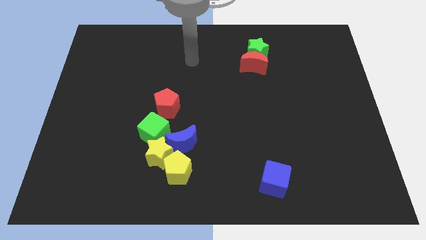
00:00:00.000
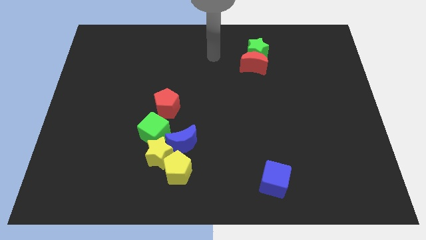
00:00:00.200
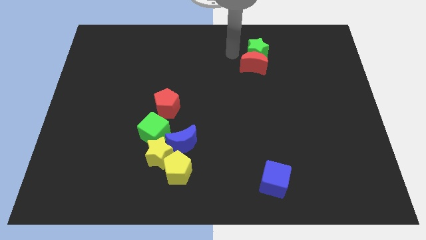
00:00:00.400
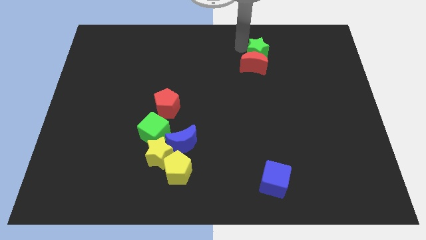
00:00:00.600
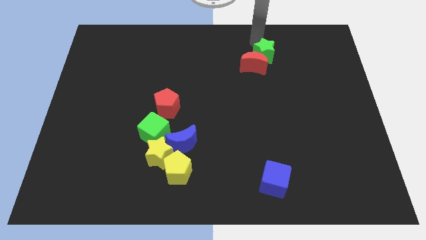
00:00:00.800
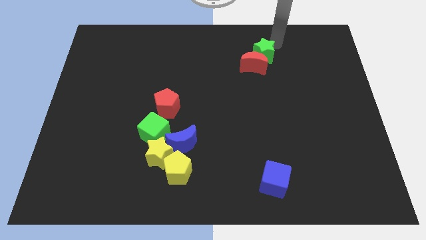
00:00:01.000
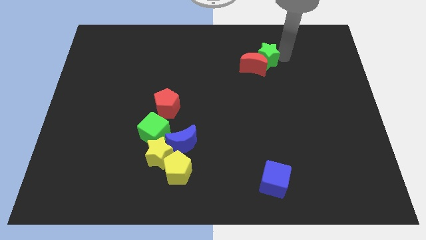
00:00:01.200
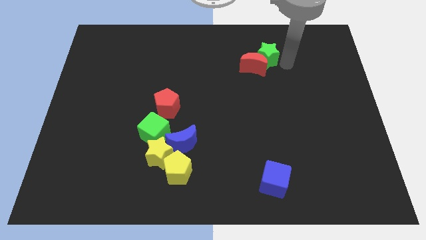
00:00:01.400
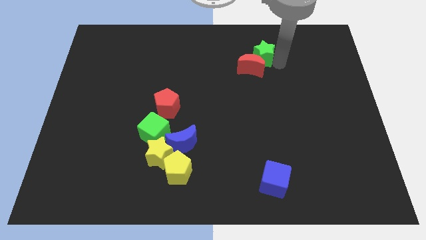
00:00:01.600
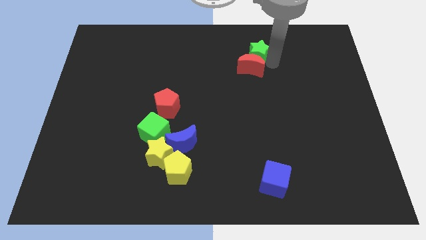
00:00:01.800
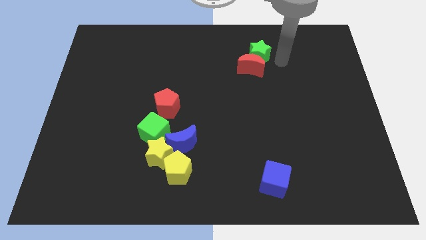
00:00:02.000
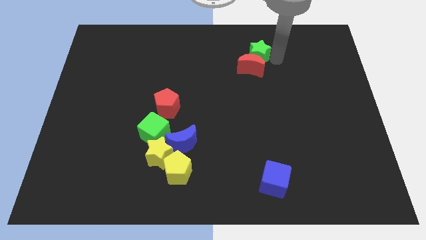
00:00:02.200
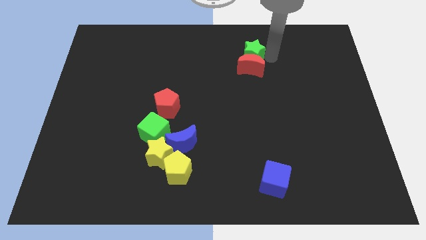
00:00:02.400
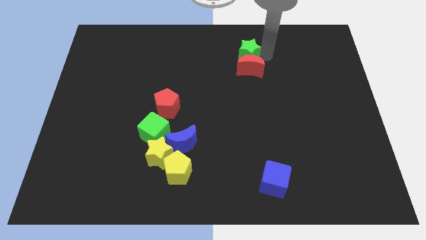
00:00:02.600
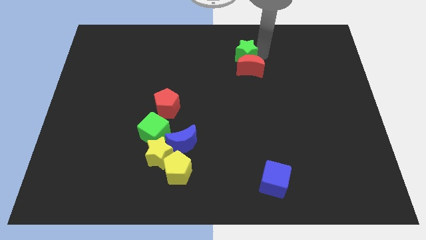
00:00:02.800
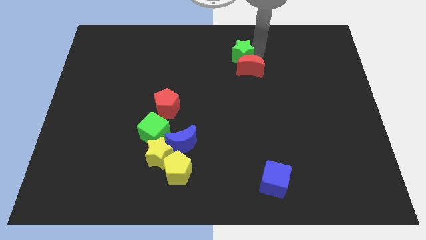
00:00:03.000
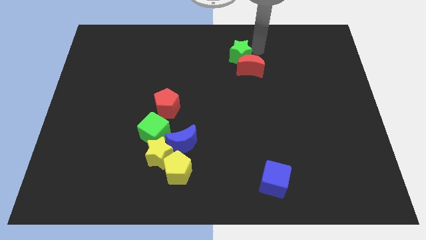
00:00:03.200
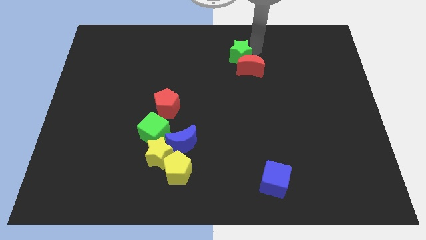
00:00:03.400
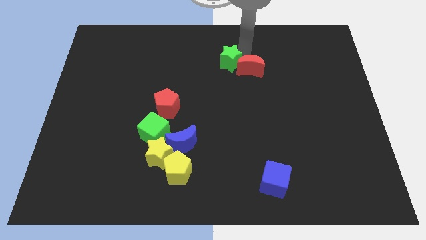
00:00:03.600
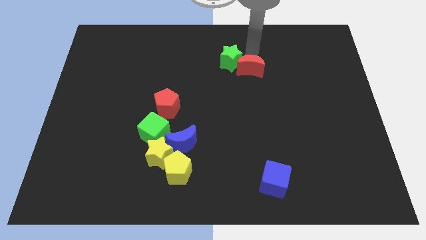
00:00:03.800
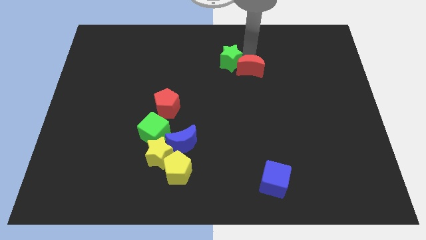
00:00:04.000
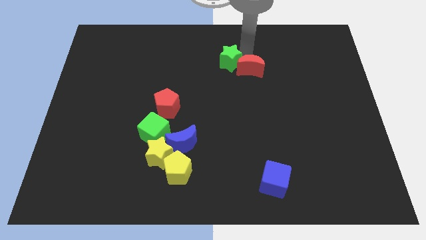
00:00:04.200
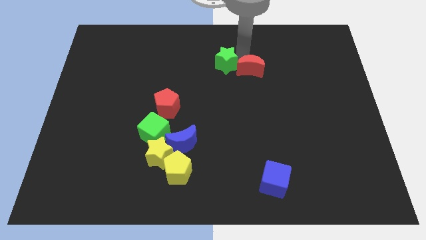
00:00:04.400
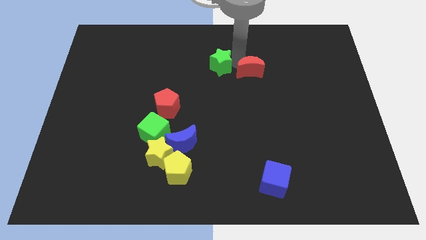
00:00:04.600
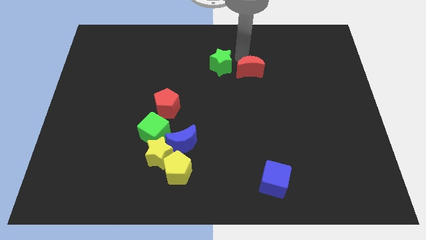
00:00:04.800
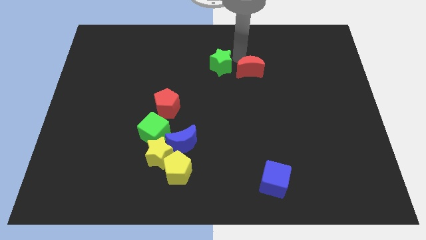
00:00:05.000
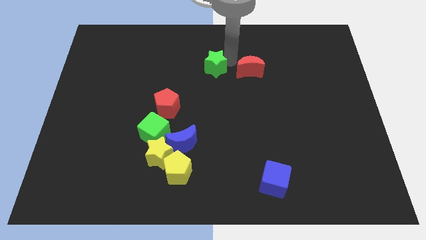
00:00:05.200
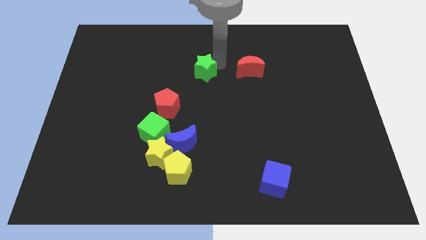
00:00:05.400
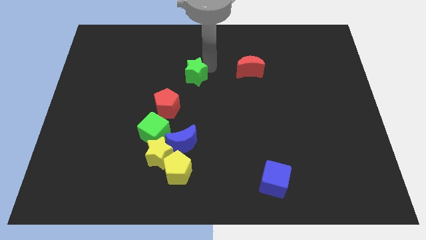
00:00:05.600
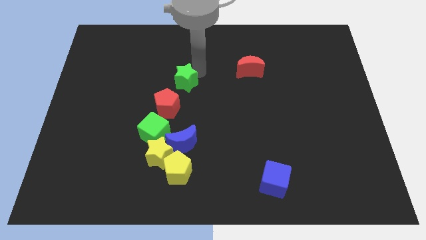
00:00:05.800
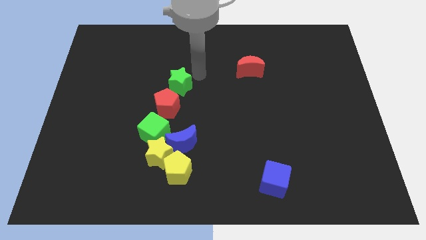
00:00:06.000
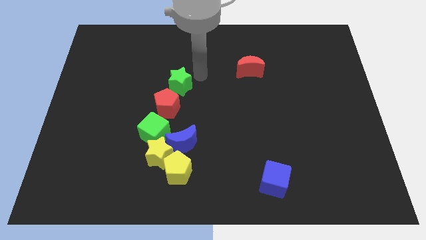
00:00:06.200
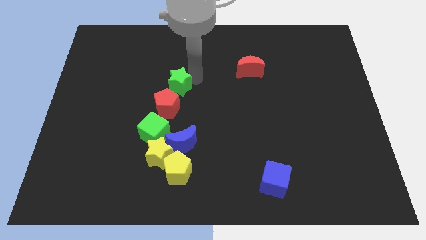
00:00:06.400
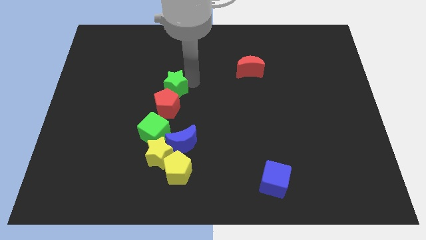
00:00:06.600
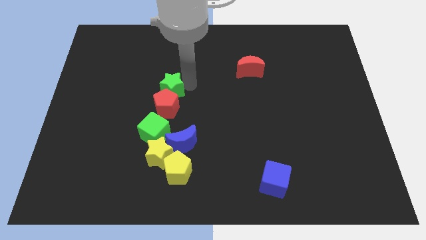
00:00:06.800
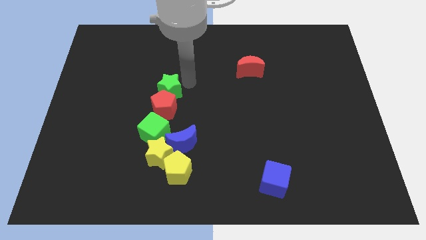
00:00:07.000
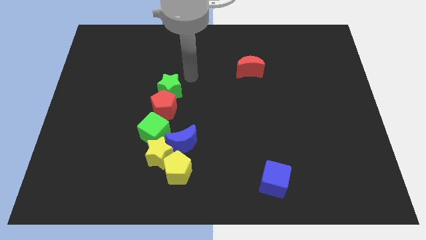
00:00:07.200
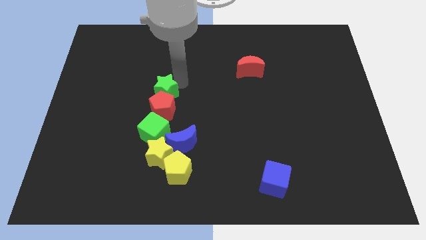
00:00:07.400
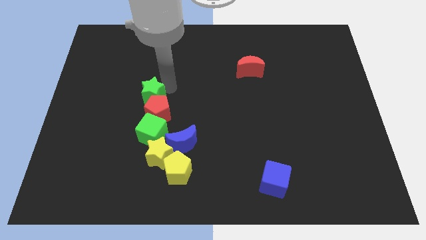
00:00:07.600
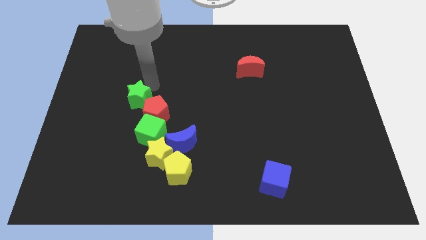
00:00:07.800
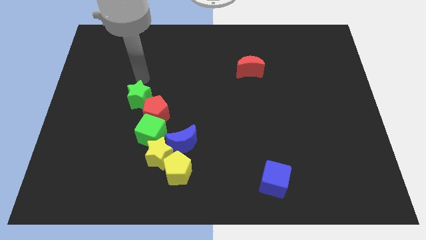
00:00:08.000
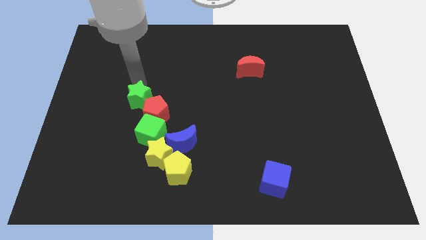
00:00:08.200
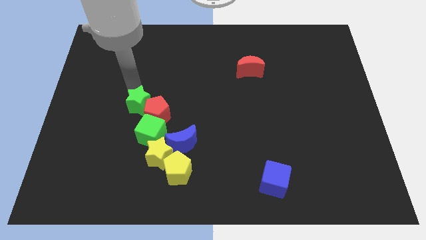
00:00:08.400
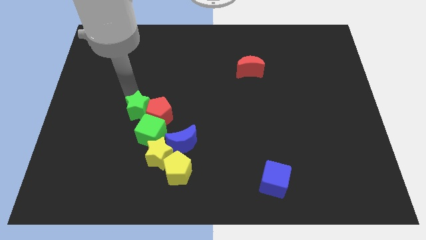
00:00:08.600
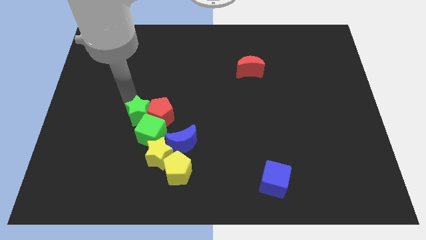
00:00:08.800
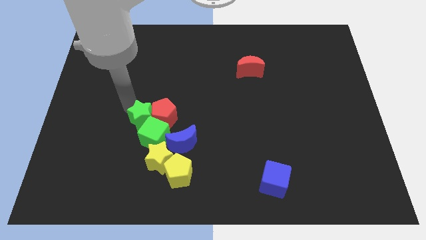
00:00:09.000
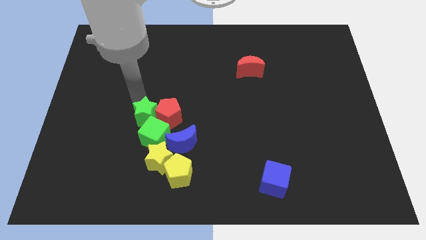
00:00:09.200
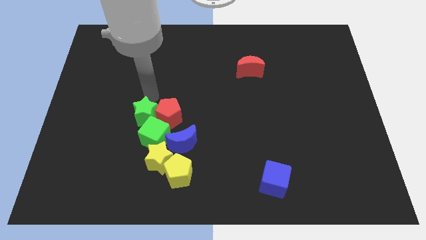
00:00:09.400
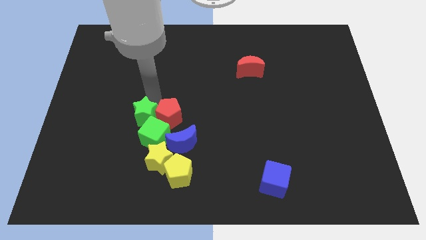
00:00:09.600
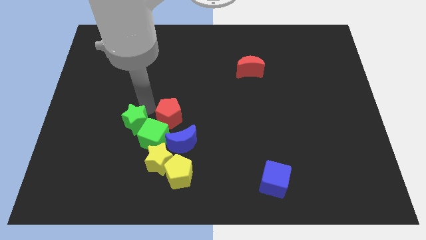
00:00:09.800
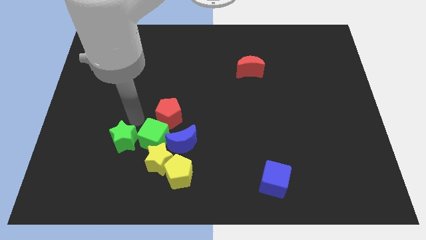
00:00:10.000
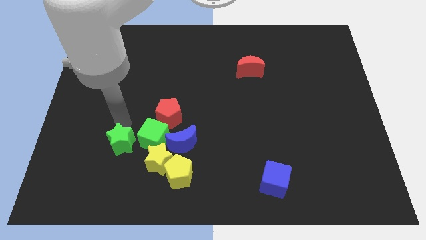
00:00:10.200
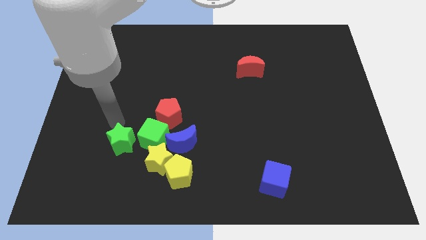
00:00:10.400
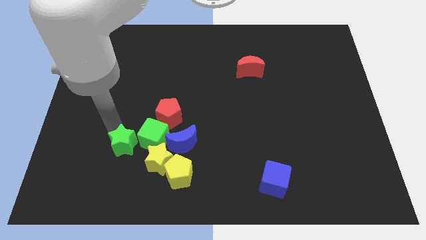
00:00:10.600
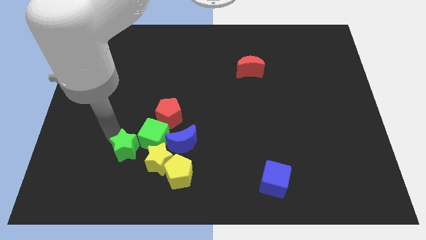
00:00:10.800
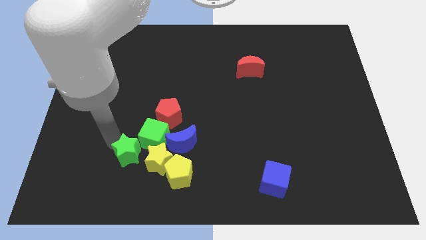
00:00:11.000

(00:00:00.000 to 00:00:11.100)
slide the green star just left of the yellow pentagon

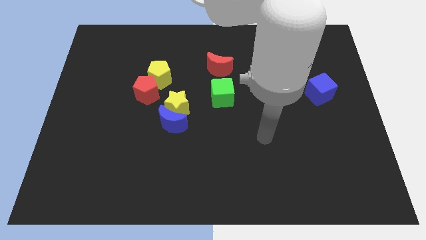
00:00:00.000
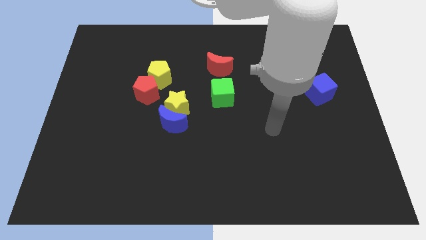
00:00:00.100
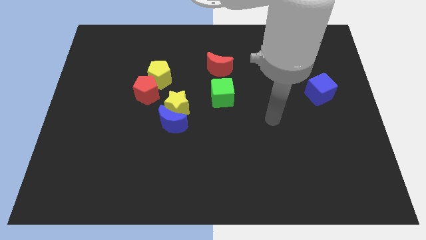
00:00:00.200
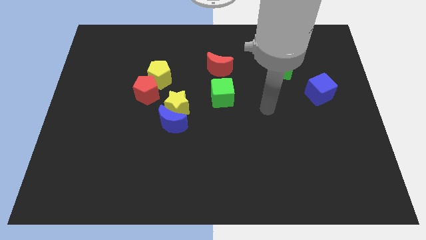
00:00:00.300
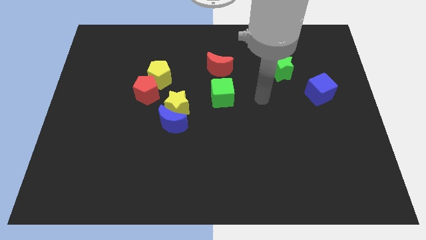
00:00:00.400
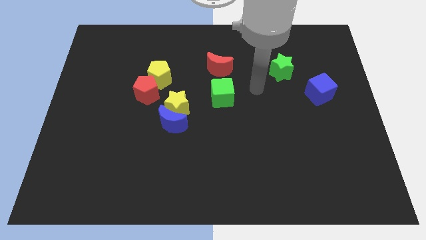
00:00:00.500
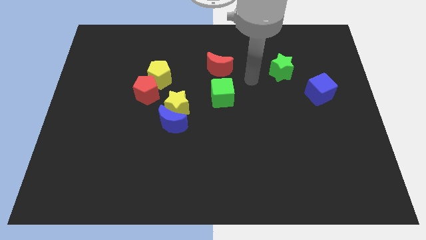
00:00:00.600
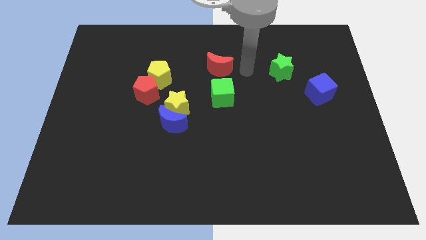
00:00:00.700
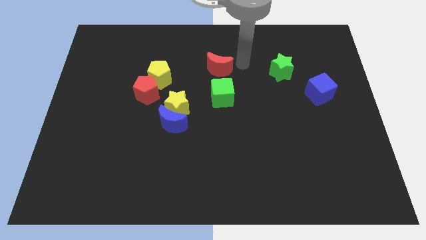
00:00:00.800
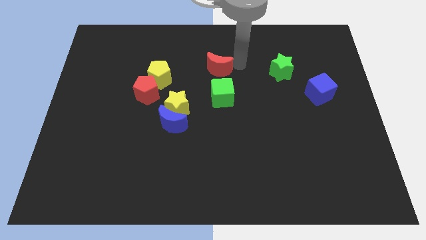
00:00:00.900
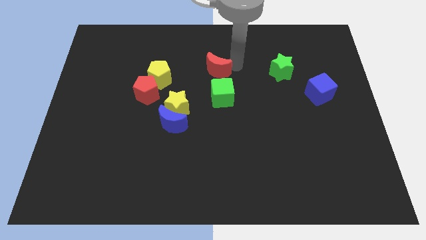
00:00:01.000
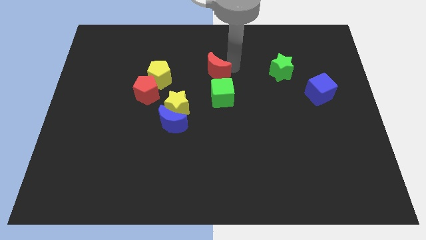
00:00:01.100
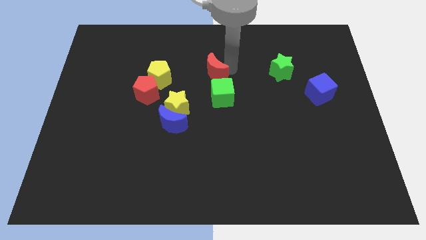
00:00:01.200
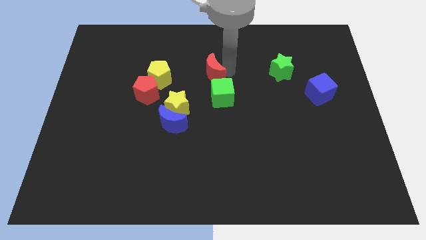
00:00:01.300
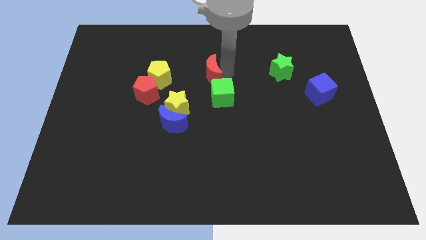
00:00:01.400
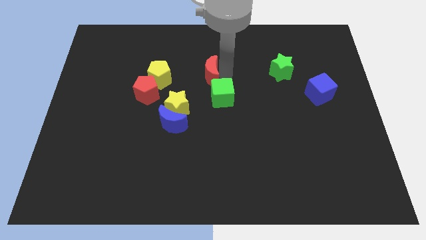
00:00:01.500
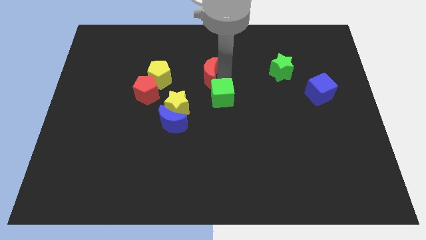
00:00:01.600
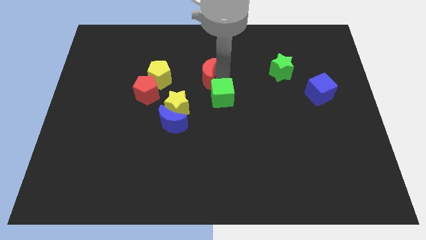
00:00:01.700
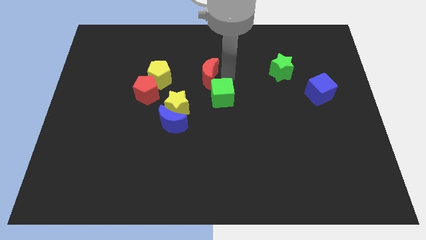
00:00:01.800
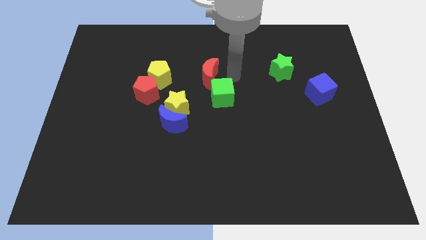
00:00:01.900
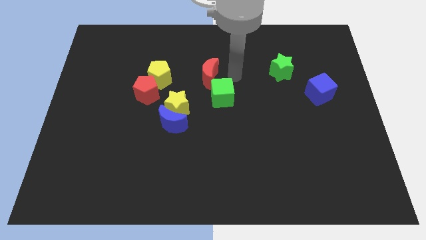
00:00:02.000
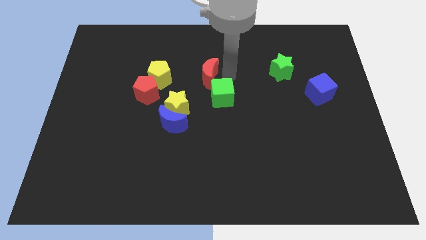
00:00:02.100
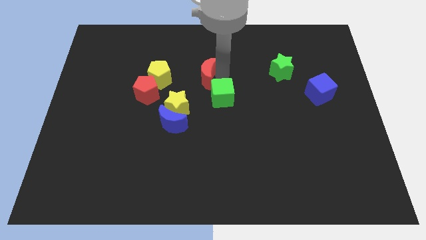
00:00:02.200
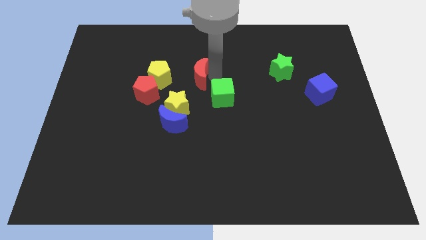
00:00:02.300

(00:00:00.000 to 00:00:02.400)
slide the red moon to the top side of the yellow star
